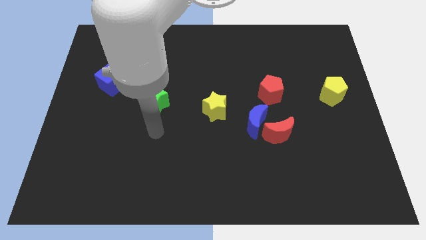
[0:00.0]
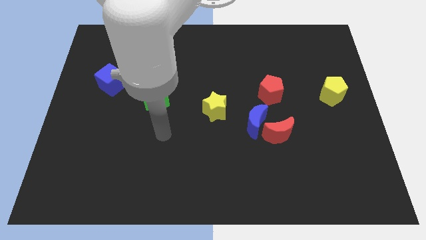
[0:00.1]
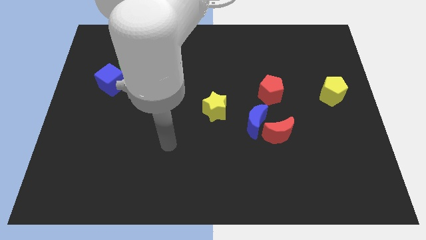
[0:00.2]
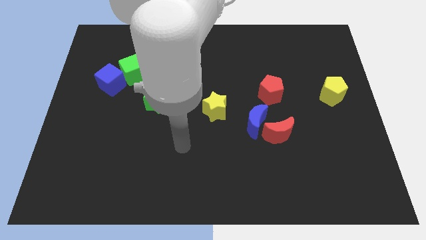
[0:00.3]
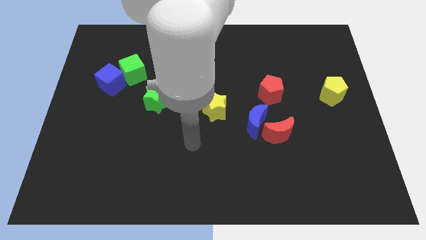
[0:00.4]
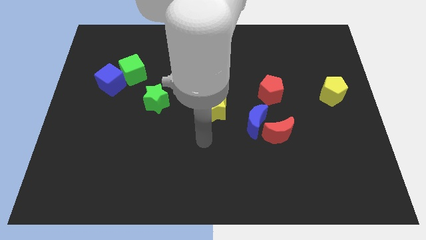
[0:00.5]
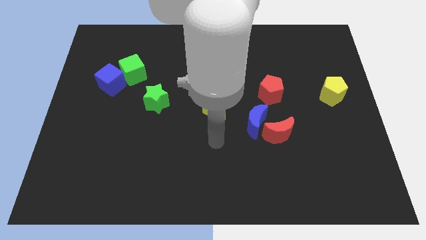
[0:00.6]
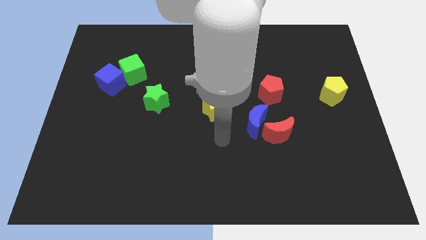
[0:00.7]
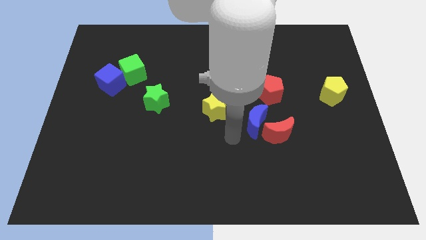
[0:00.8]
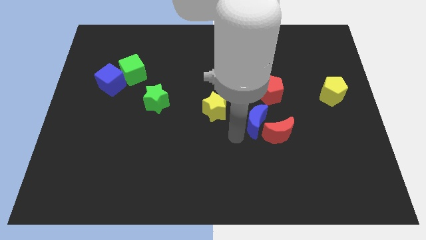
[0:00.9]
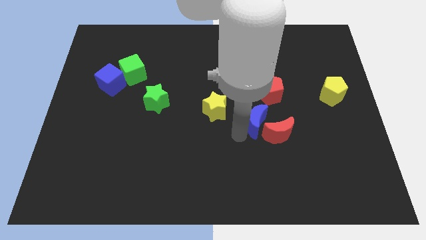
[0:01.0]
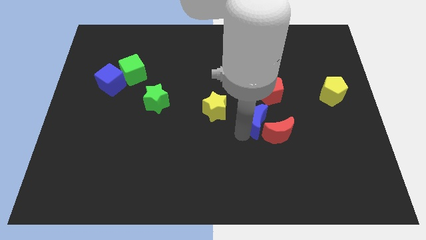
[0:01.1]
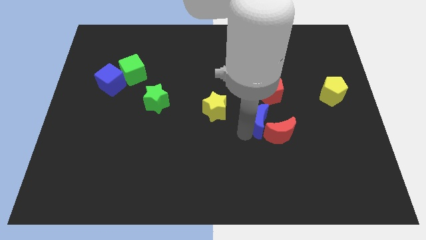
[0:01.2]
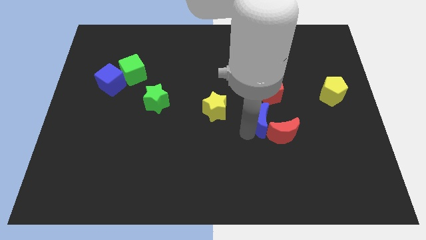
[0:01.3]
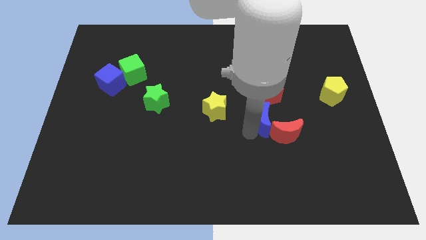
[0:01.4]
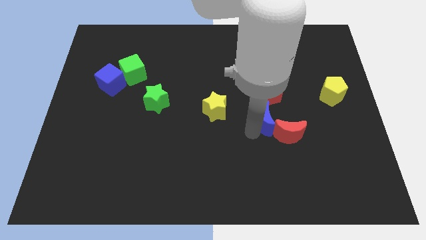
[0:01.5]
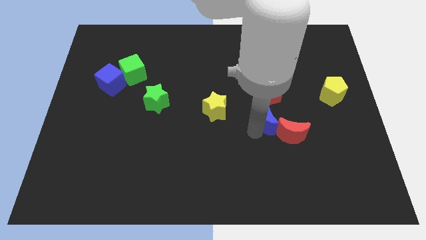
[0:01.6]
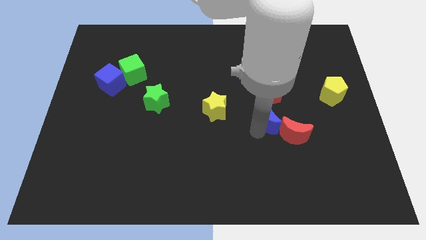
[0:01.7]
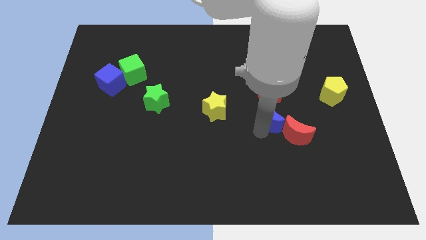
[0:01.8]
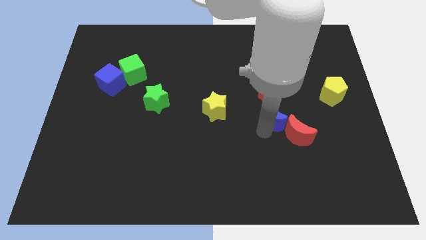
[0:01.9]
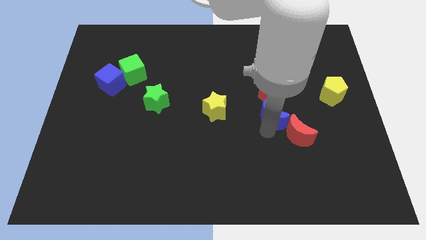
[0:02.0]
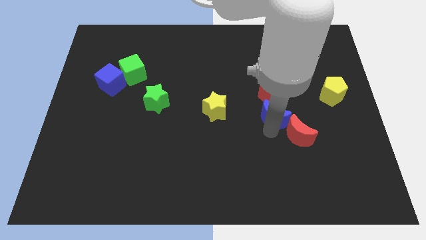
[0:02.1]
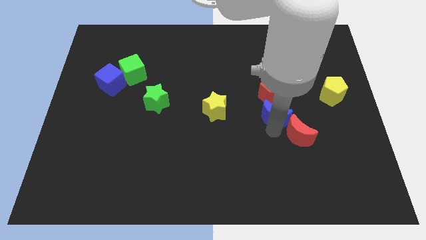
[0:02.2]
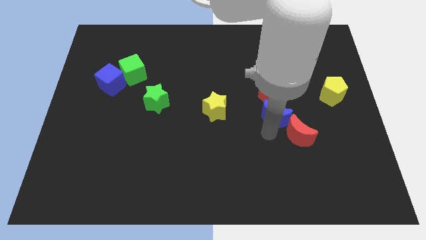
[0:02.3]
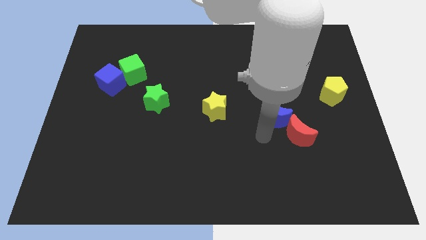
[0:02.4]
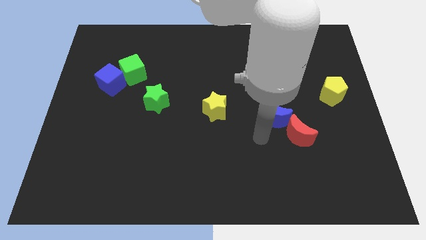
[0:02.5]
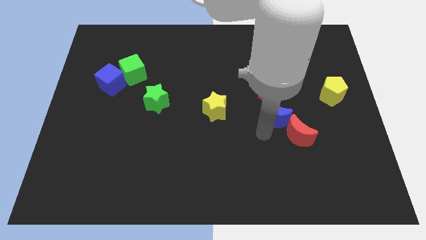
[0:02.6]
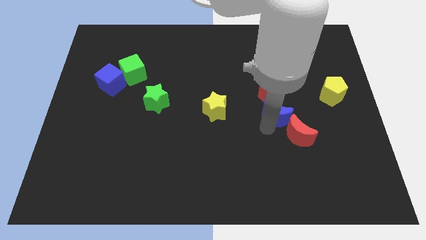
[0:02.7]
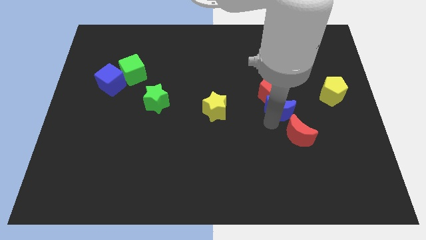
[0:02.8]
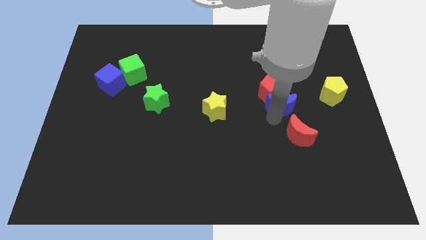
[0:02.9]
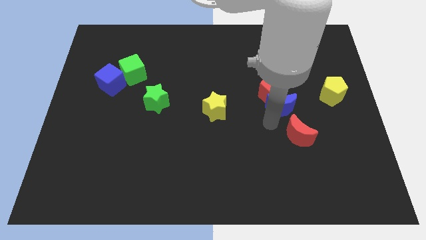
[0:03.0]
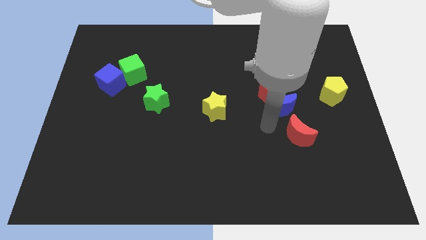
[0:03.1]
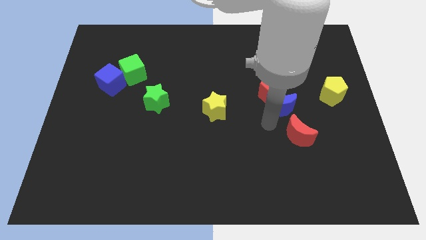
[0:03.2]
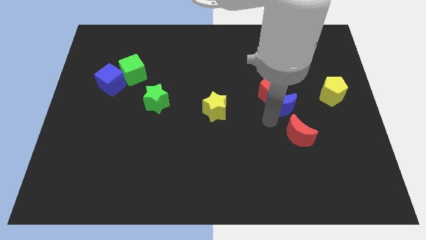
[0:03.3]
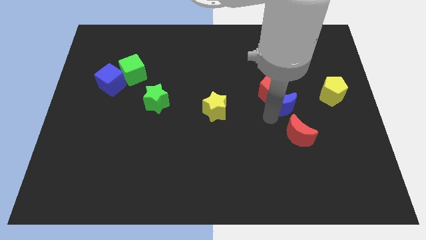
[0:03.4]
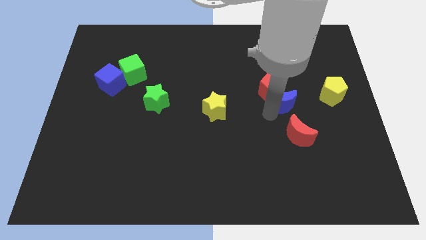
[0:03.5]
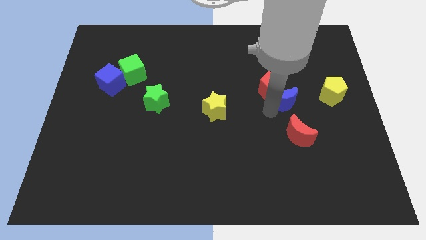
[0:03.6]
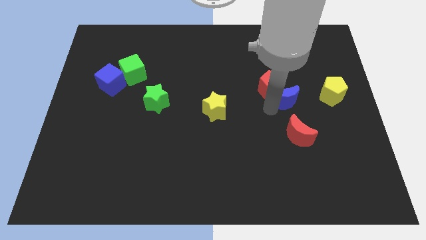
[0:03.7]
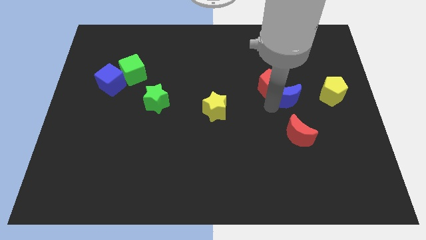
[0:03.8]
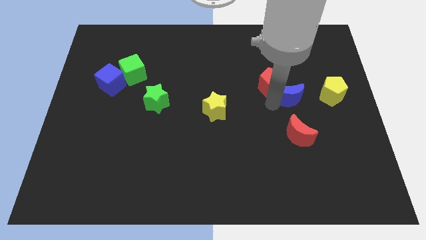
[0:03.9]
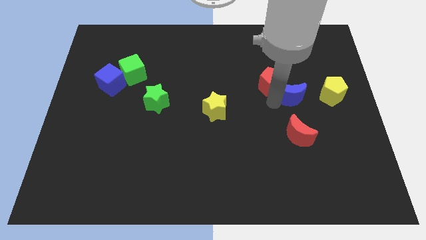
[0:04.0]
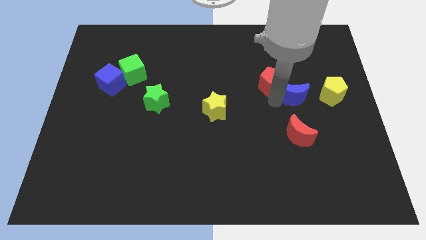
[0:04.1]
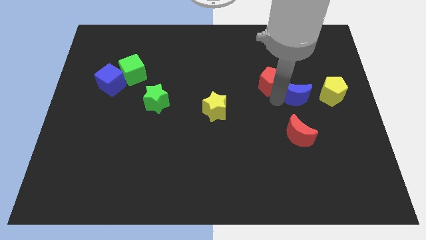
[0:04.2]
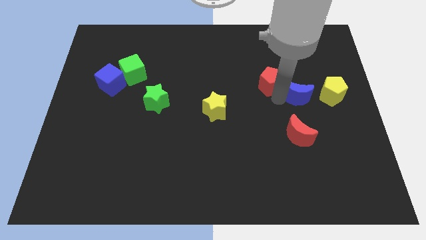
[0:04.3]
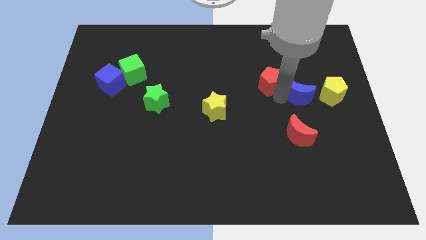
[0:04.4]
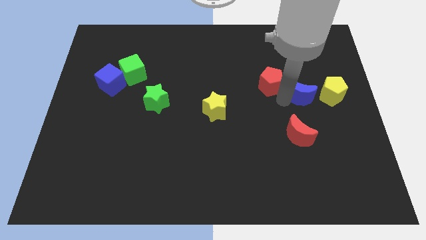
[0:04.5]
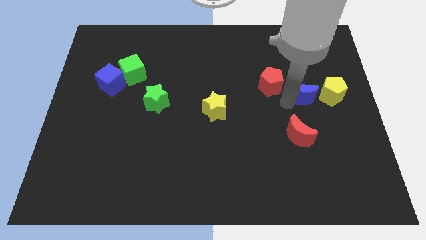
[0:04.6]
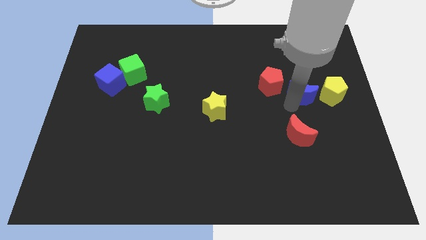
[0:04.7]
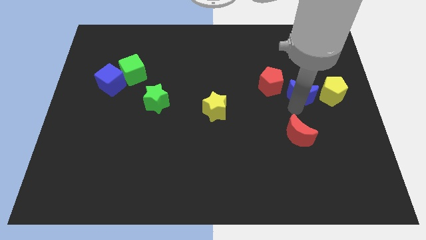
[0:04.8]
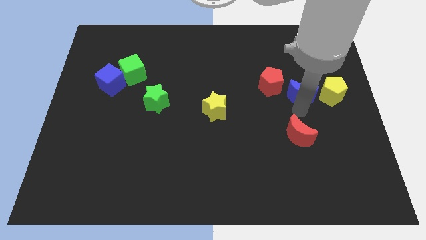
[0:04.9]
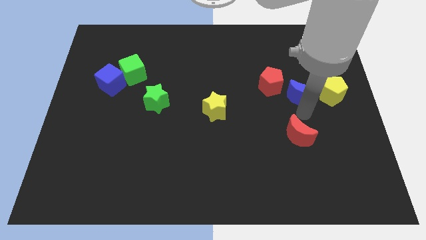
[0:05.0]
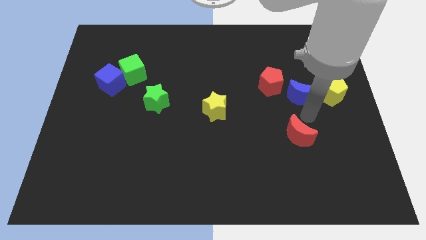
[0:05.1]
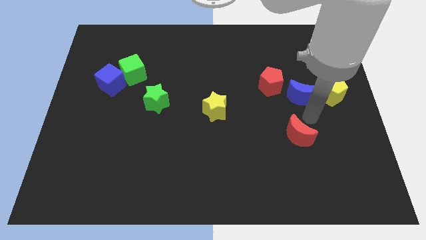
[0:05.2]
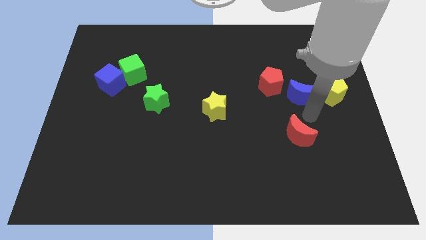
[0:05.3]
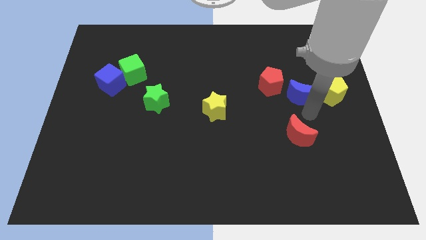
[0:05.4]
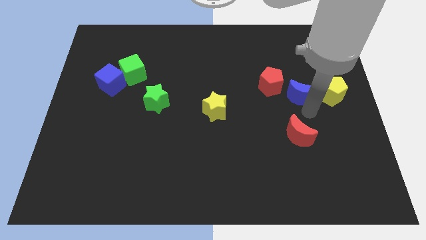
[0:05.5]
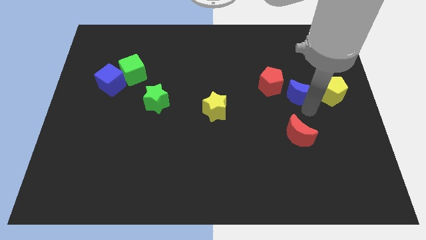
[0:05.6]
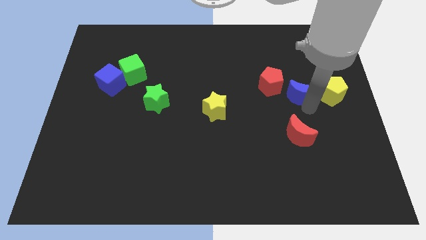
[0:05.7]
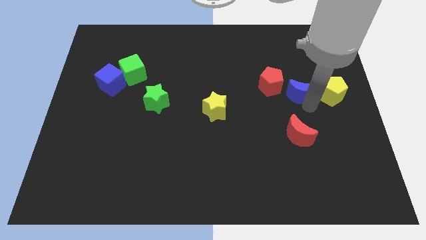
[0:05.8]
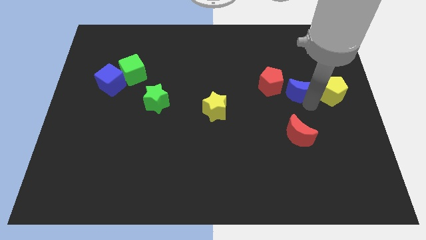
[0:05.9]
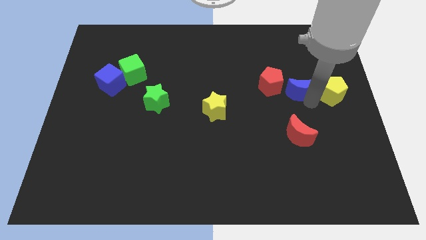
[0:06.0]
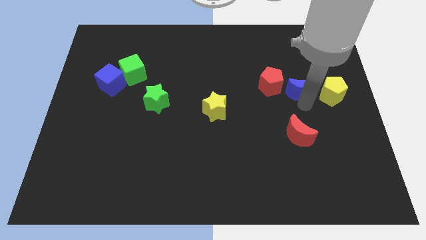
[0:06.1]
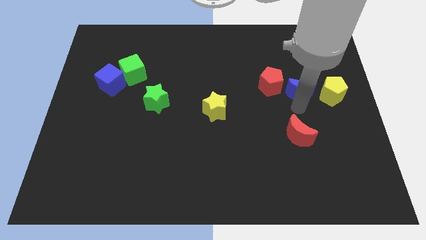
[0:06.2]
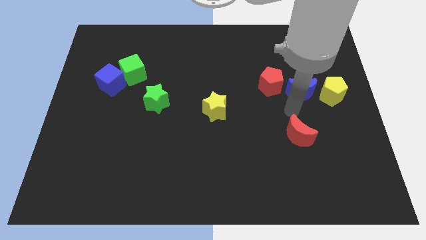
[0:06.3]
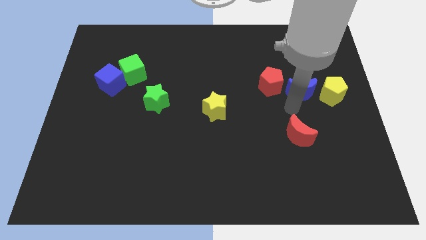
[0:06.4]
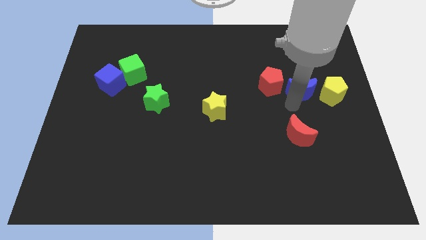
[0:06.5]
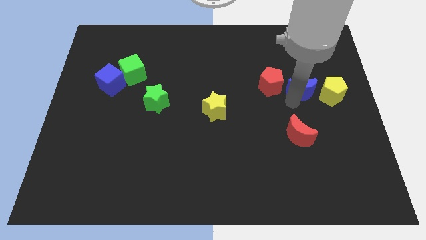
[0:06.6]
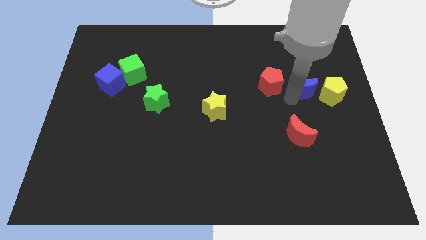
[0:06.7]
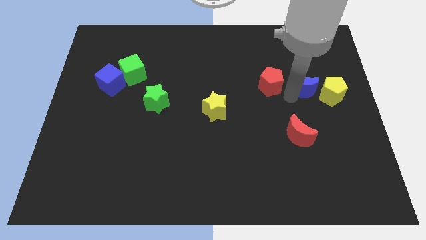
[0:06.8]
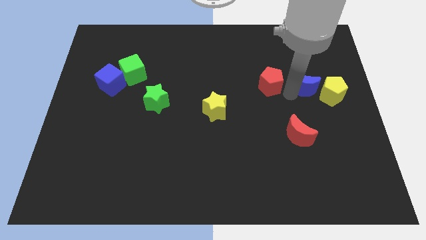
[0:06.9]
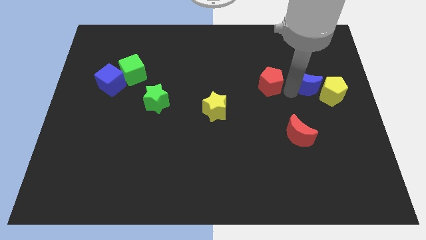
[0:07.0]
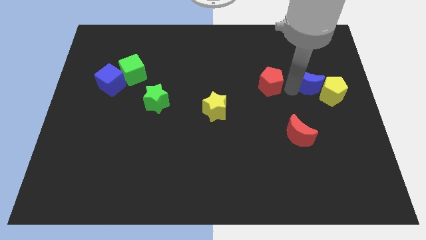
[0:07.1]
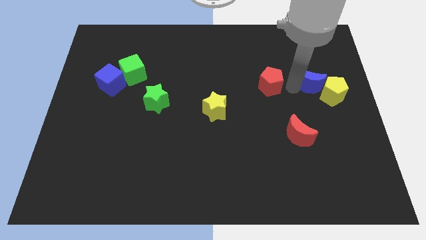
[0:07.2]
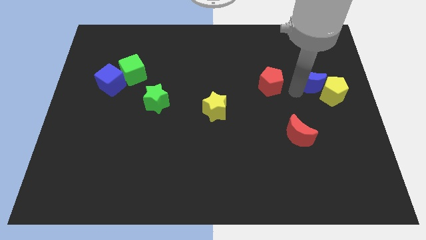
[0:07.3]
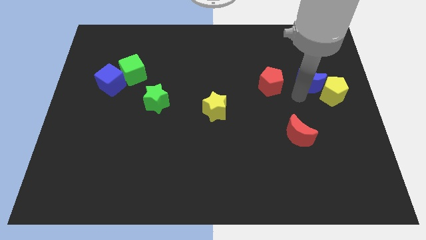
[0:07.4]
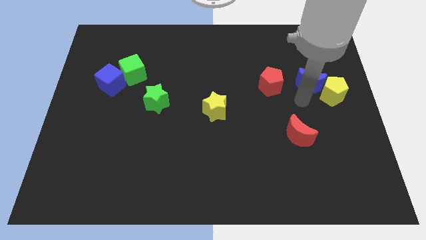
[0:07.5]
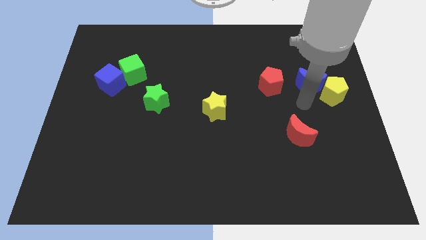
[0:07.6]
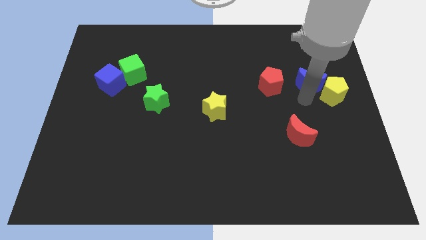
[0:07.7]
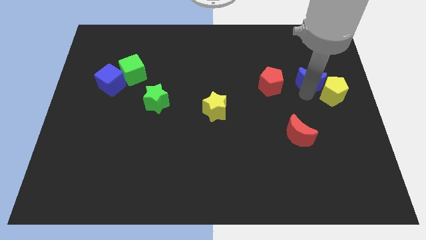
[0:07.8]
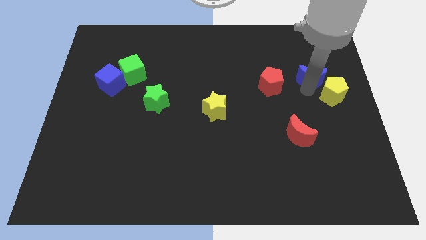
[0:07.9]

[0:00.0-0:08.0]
push the blue moon above the yellow pentagon
